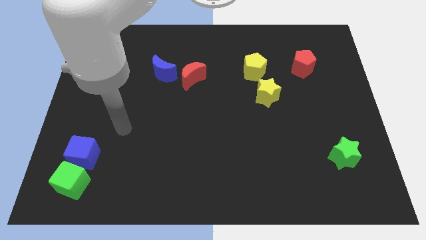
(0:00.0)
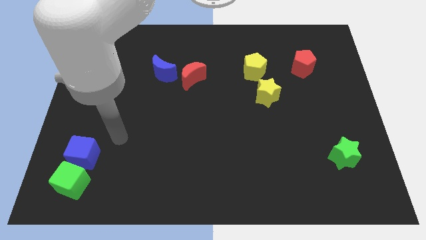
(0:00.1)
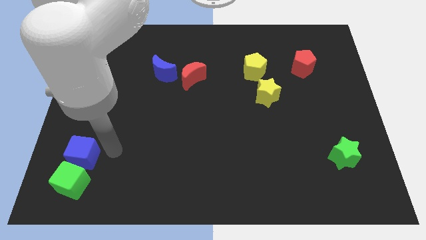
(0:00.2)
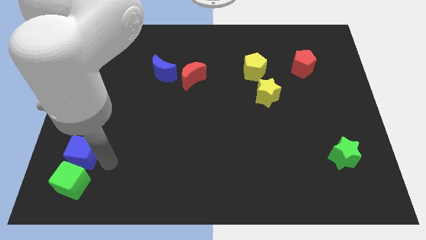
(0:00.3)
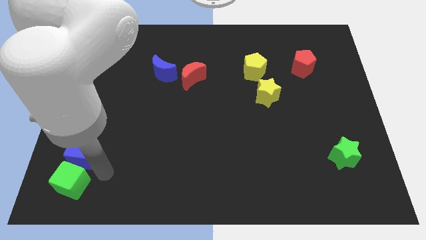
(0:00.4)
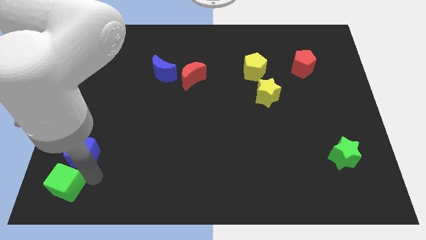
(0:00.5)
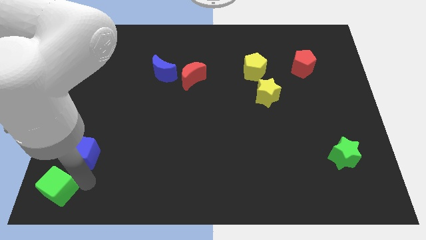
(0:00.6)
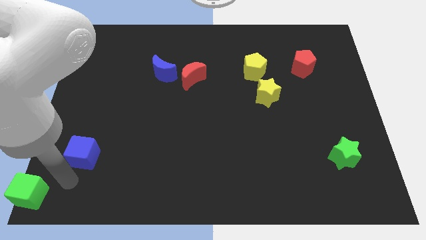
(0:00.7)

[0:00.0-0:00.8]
move the blue cube away from the green cube

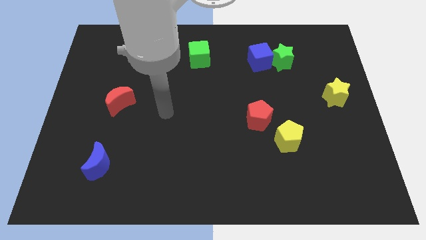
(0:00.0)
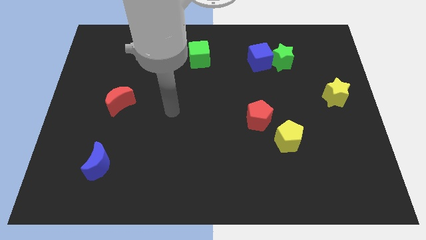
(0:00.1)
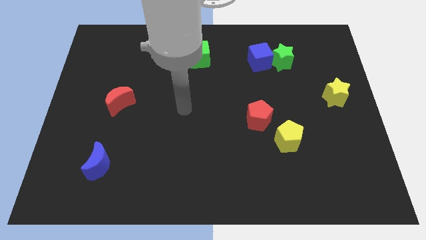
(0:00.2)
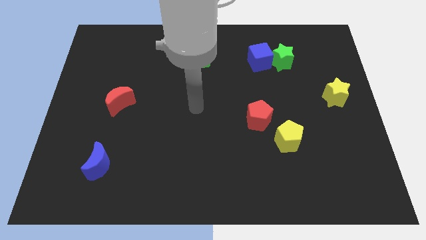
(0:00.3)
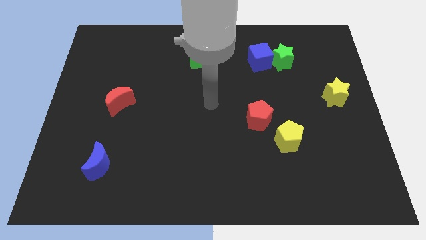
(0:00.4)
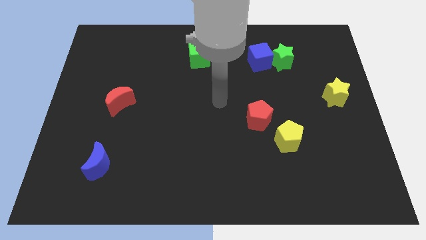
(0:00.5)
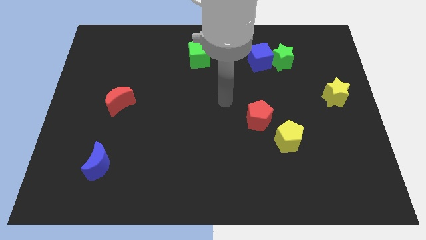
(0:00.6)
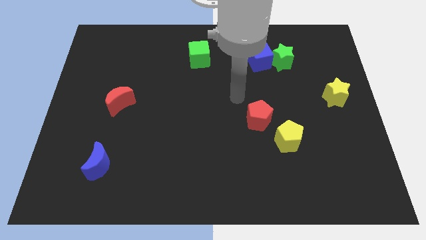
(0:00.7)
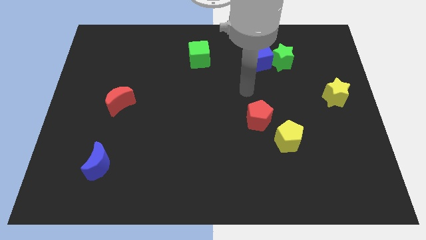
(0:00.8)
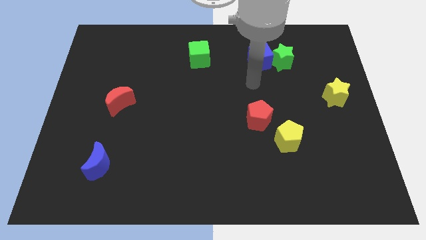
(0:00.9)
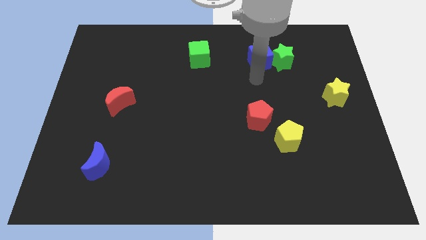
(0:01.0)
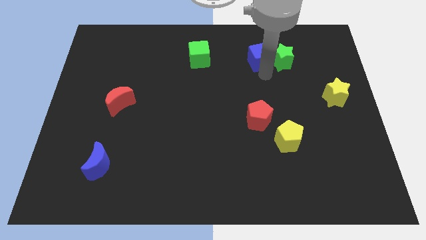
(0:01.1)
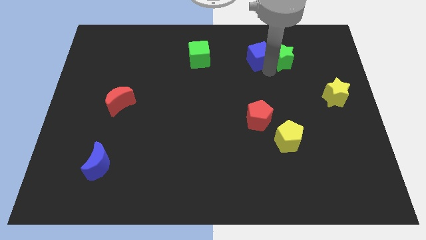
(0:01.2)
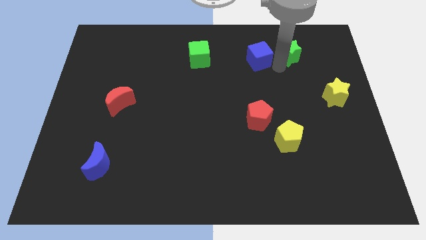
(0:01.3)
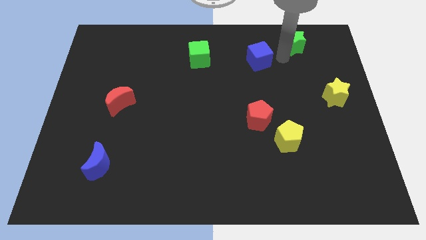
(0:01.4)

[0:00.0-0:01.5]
move the blue cube away from the green star

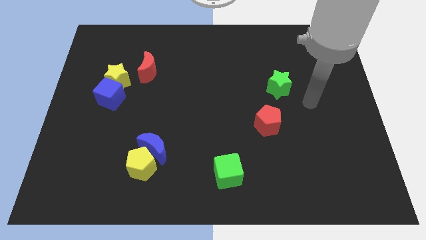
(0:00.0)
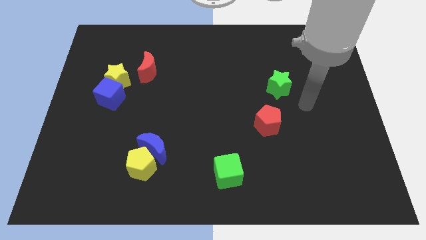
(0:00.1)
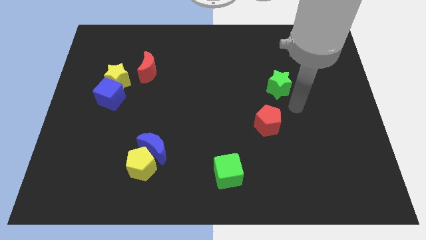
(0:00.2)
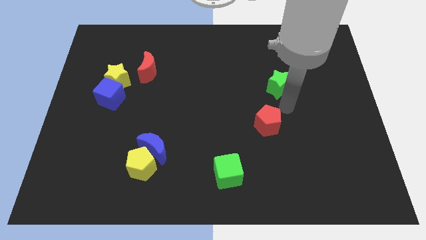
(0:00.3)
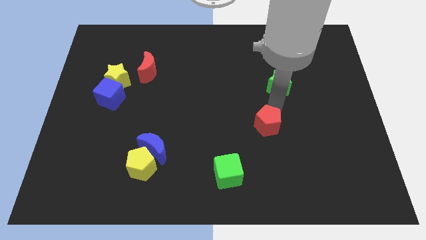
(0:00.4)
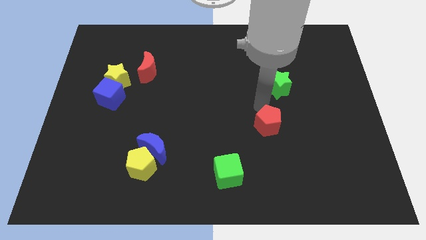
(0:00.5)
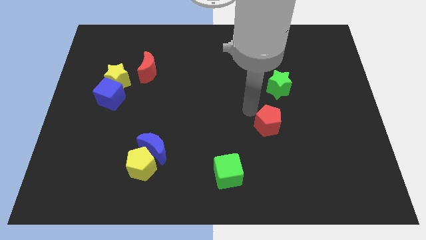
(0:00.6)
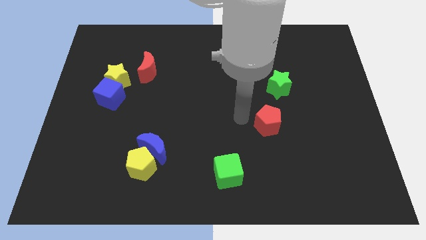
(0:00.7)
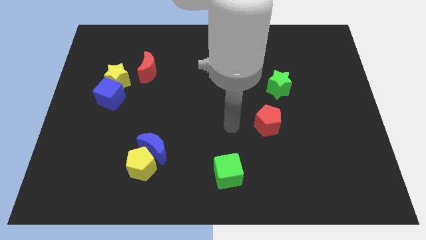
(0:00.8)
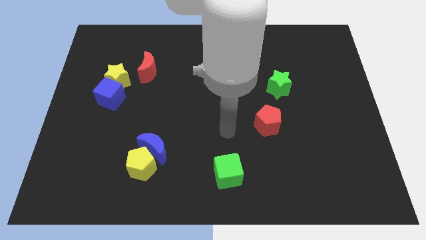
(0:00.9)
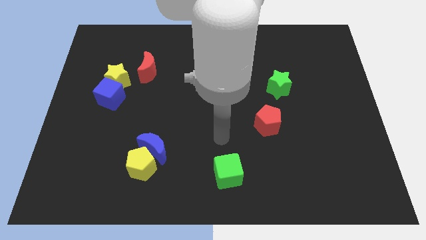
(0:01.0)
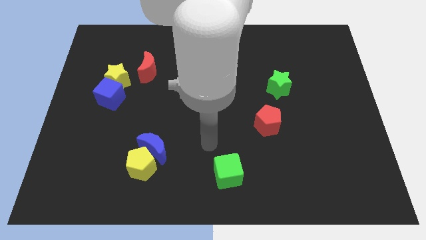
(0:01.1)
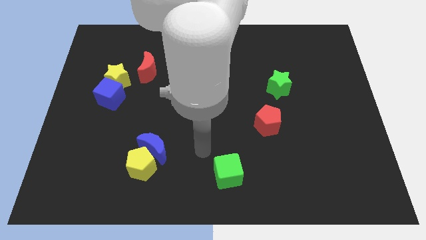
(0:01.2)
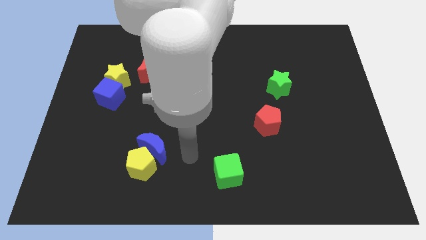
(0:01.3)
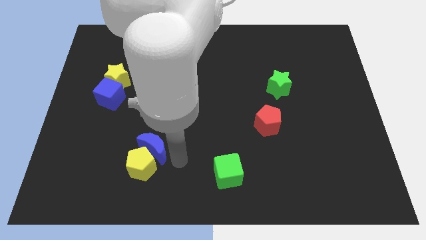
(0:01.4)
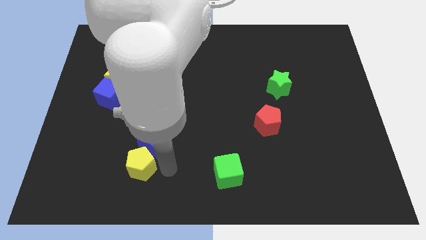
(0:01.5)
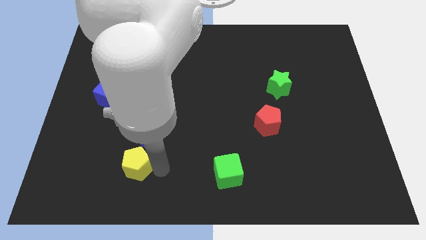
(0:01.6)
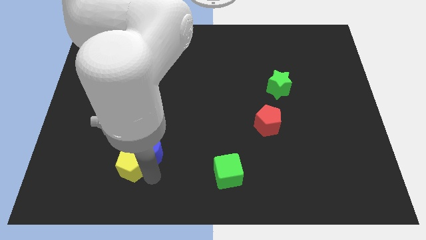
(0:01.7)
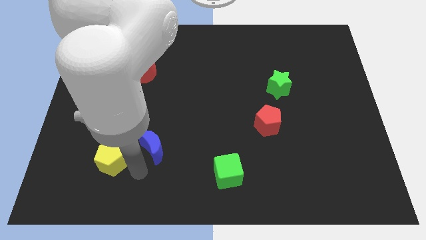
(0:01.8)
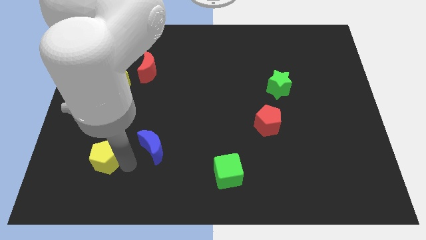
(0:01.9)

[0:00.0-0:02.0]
separate the blue moon from the yellow pentagon

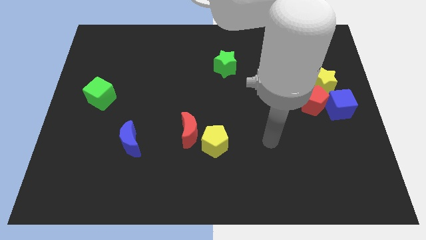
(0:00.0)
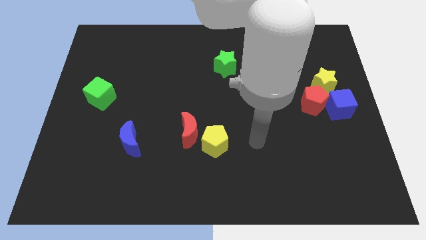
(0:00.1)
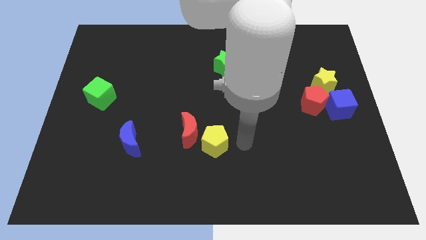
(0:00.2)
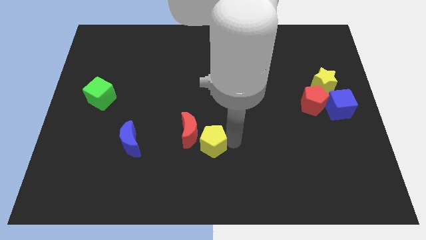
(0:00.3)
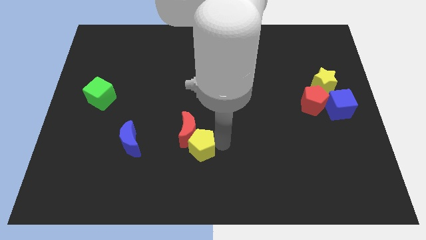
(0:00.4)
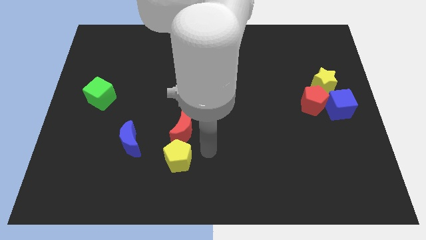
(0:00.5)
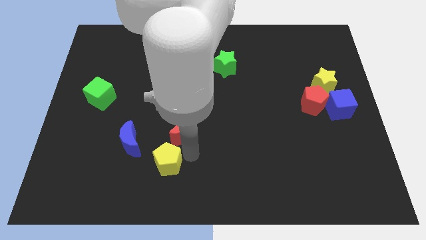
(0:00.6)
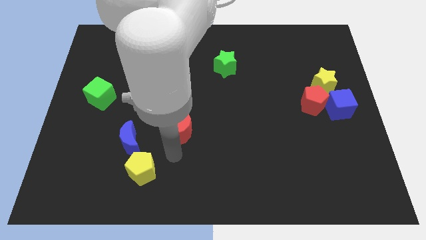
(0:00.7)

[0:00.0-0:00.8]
pull the red moon apart from the yellow pentagon

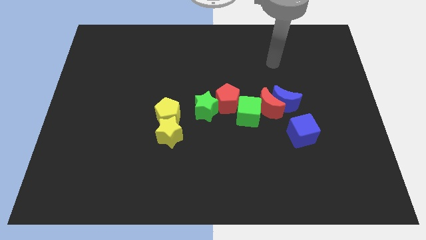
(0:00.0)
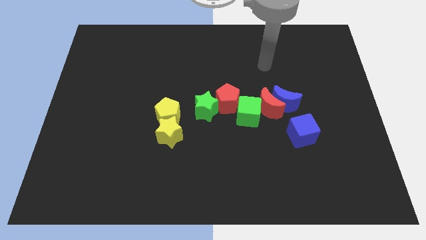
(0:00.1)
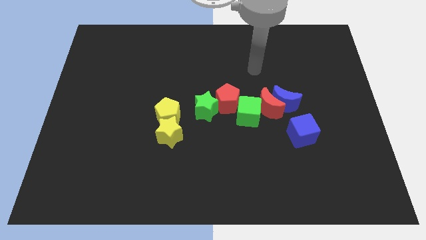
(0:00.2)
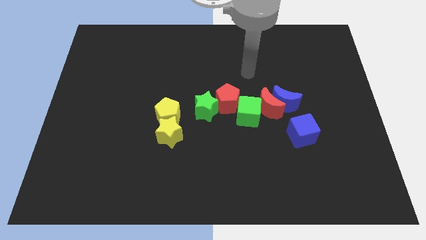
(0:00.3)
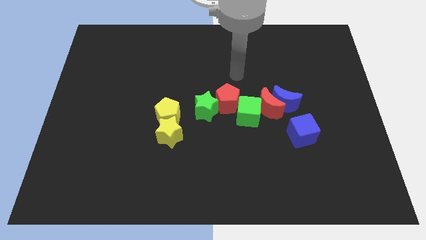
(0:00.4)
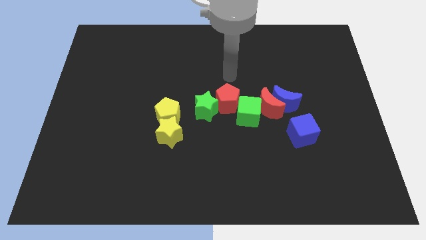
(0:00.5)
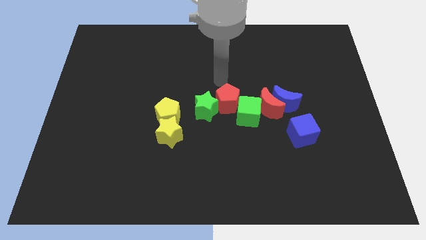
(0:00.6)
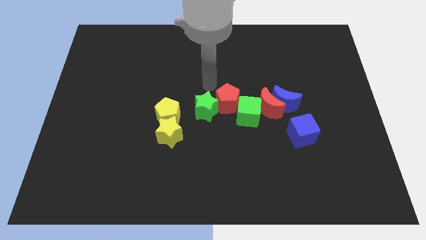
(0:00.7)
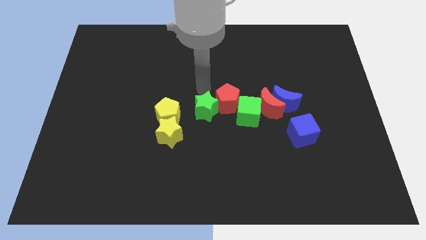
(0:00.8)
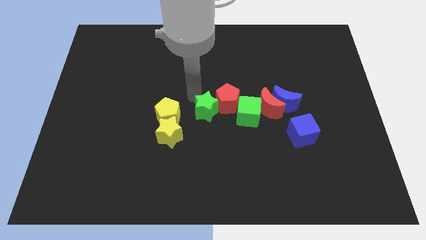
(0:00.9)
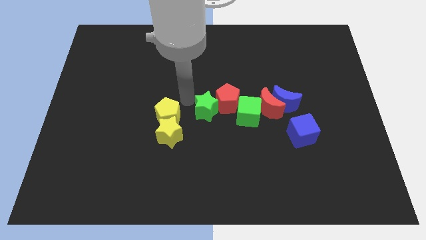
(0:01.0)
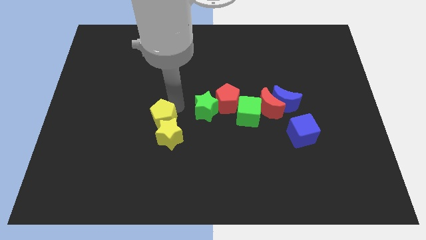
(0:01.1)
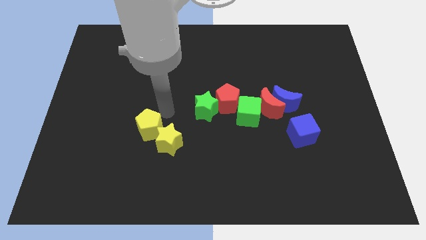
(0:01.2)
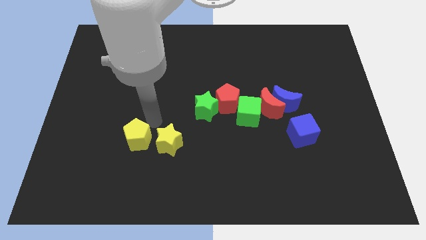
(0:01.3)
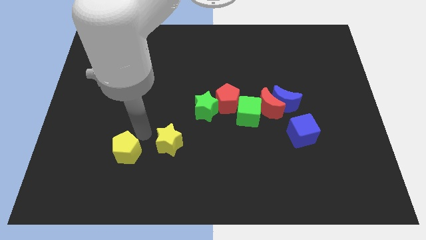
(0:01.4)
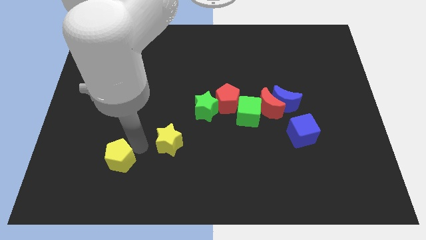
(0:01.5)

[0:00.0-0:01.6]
move the yellow star away from the yellow pentagon

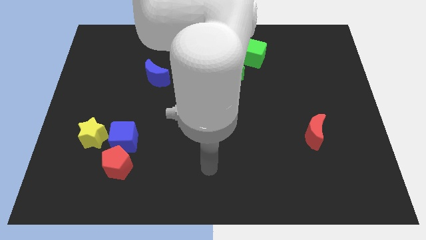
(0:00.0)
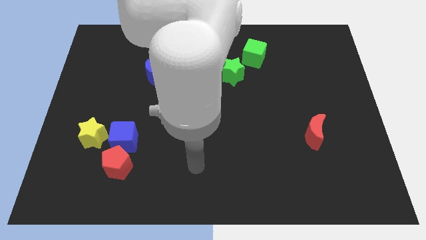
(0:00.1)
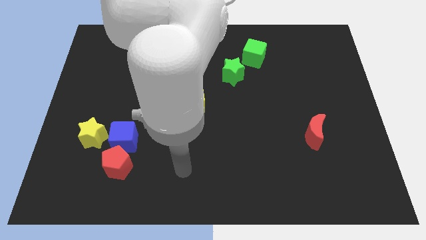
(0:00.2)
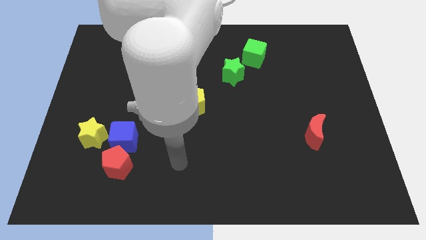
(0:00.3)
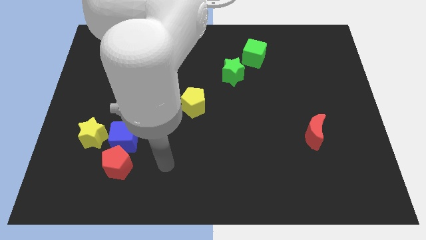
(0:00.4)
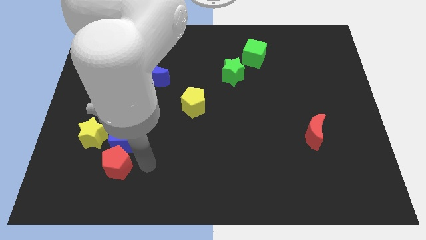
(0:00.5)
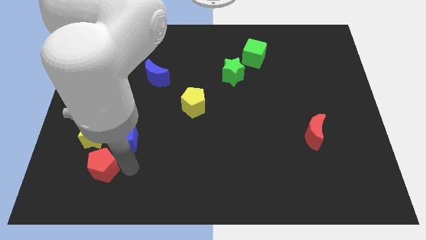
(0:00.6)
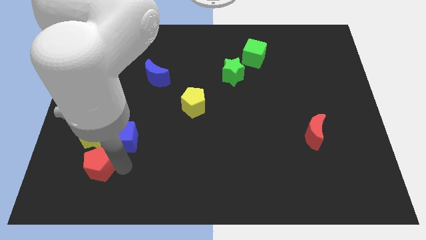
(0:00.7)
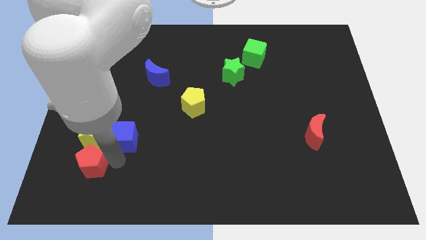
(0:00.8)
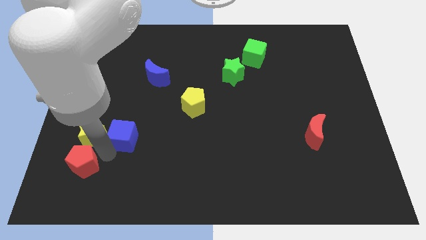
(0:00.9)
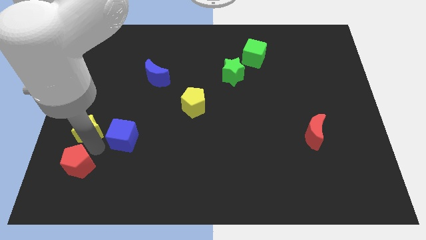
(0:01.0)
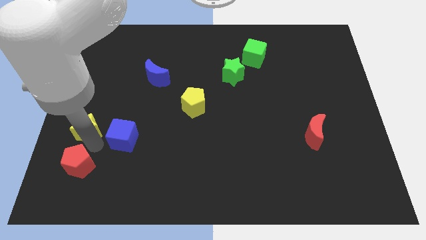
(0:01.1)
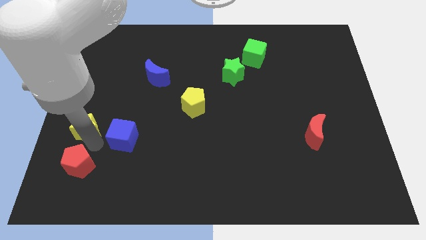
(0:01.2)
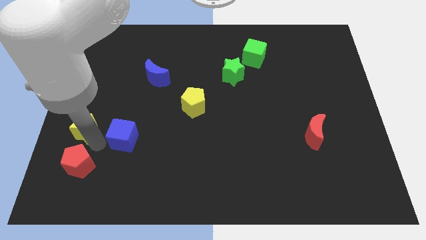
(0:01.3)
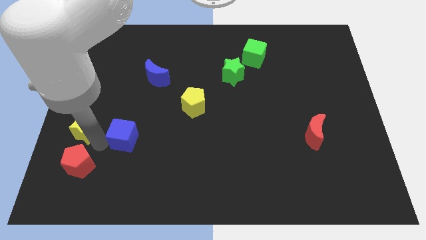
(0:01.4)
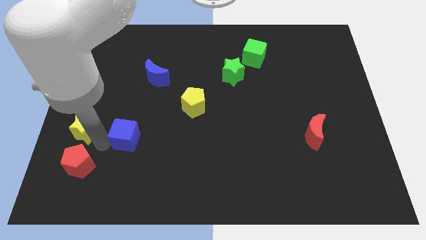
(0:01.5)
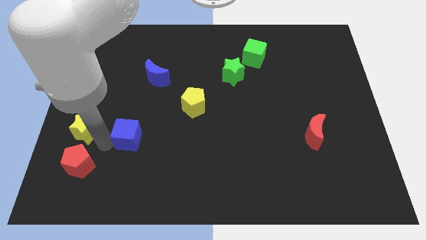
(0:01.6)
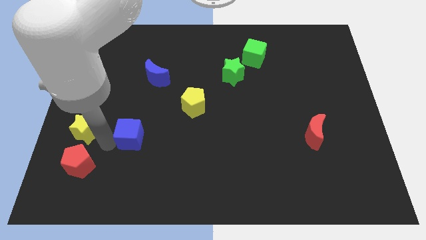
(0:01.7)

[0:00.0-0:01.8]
separate the blue cube from the red pentagon and yellow star

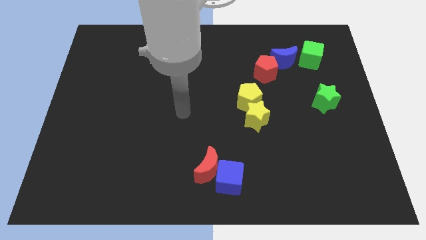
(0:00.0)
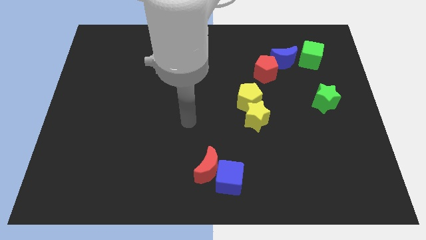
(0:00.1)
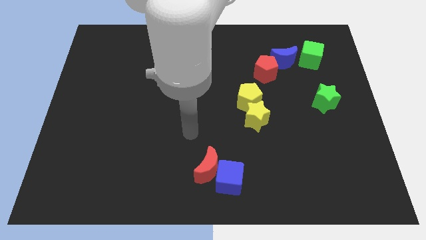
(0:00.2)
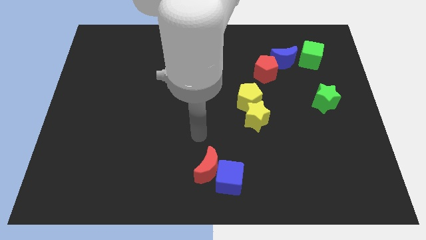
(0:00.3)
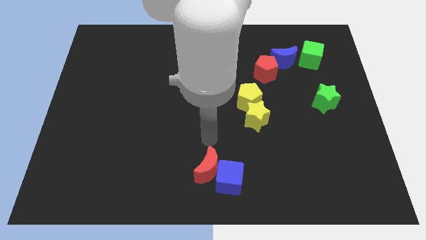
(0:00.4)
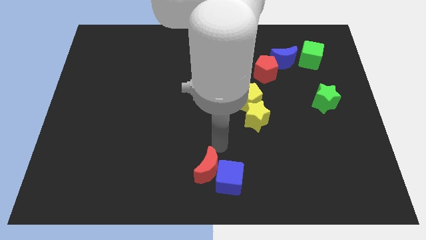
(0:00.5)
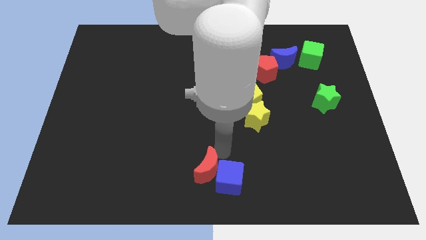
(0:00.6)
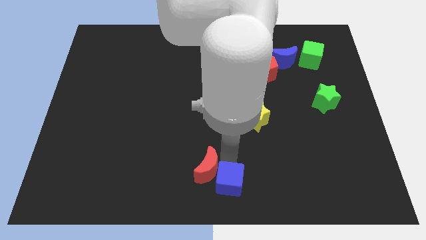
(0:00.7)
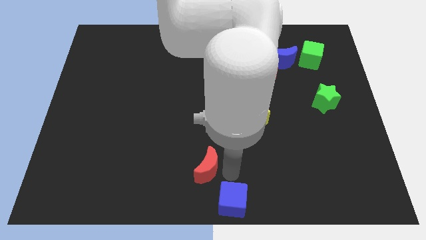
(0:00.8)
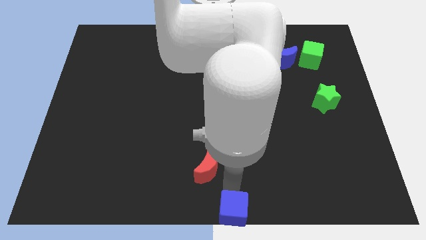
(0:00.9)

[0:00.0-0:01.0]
move the red moon away from the blue cube
